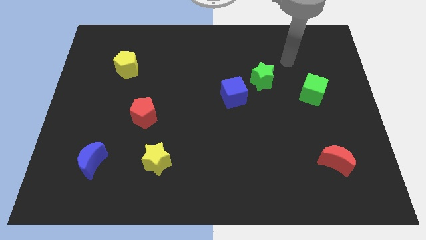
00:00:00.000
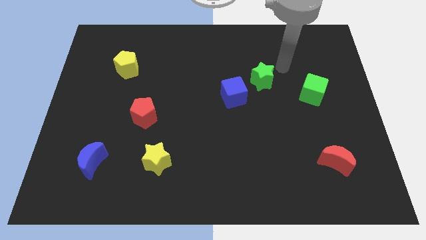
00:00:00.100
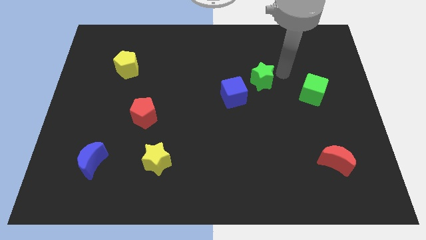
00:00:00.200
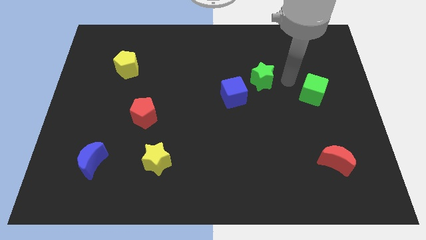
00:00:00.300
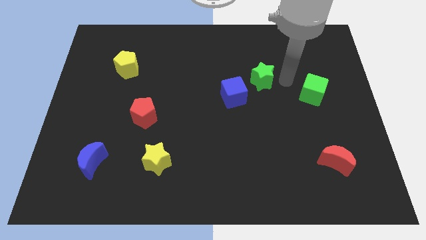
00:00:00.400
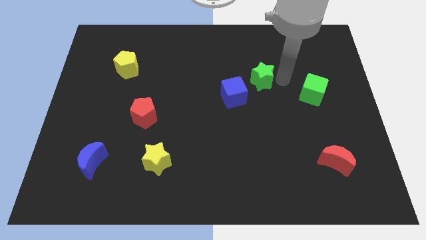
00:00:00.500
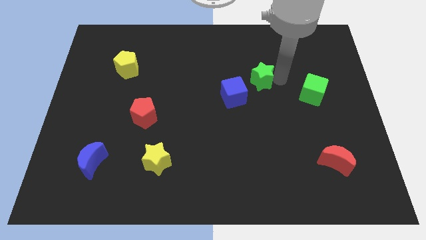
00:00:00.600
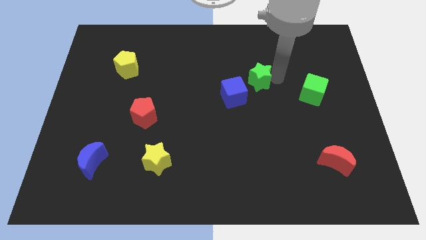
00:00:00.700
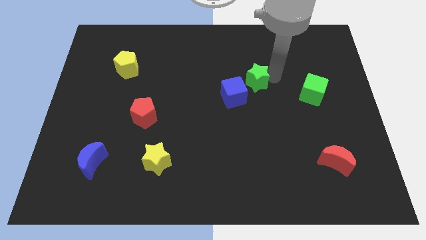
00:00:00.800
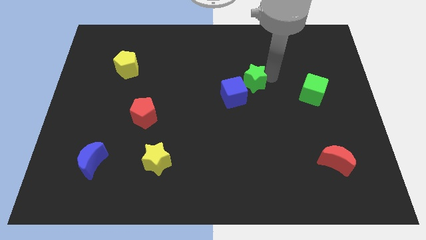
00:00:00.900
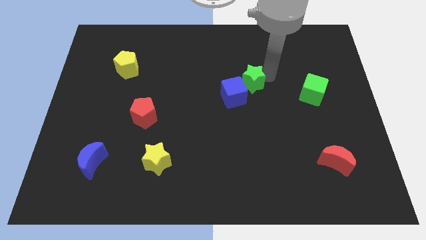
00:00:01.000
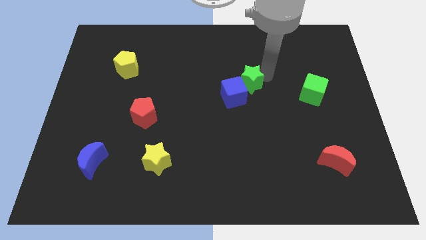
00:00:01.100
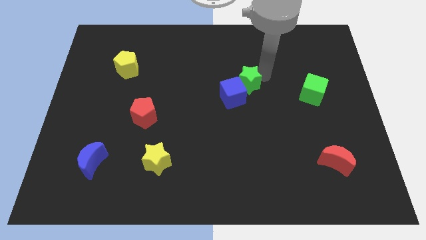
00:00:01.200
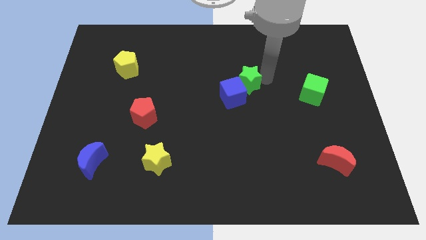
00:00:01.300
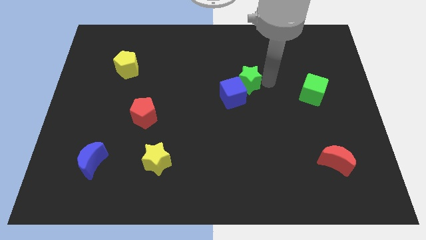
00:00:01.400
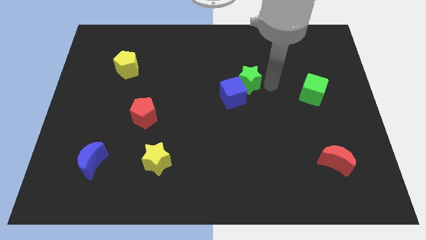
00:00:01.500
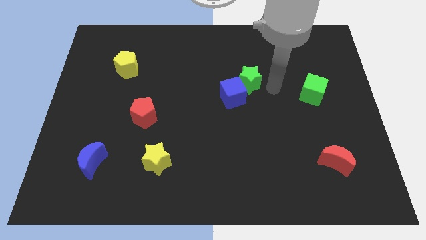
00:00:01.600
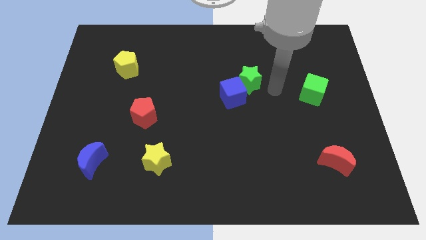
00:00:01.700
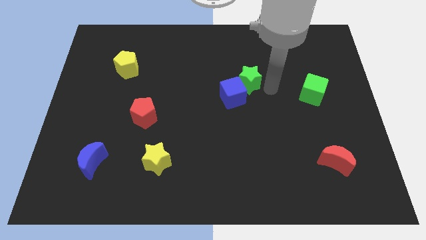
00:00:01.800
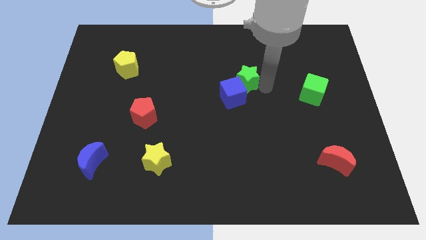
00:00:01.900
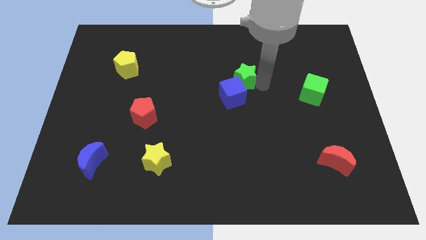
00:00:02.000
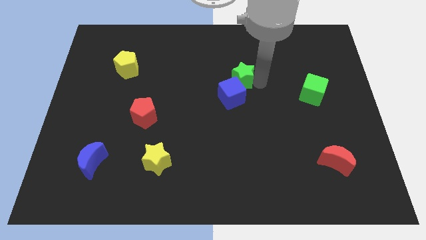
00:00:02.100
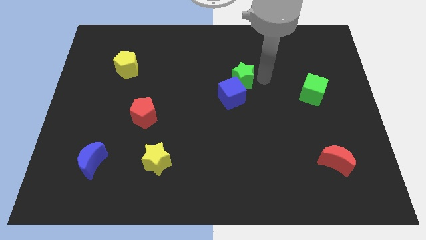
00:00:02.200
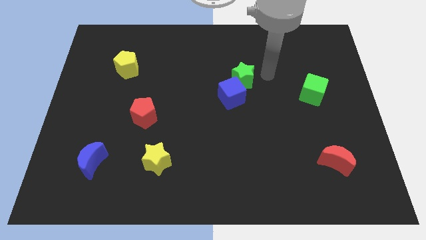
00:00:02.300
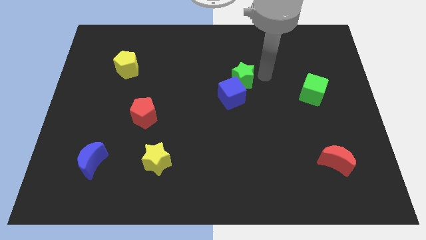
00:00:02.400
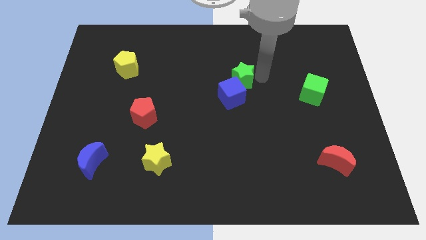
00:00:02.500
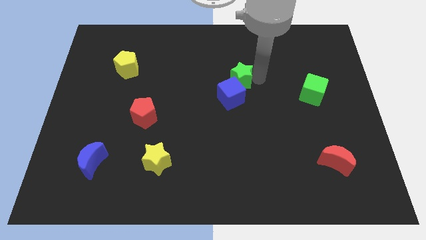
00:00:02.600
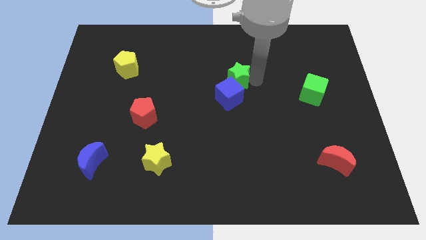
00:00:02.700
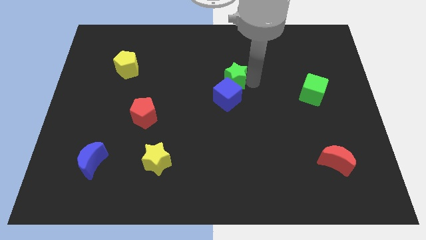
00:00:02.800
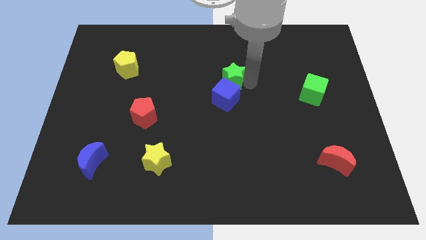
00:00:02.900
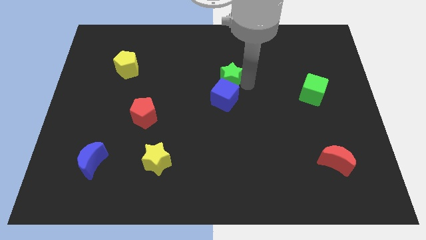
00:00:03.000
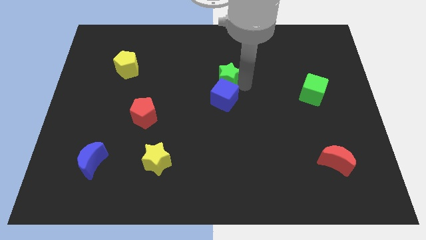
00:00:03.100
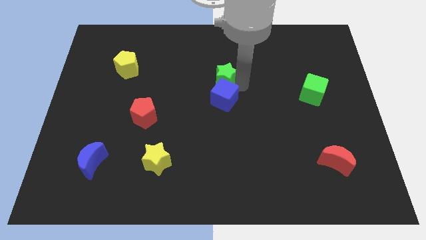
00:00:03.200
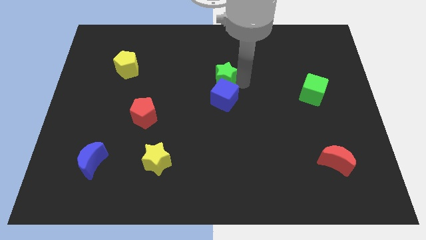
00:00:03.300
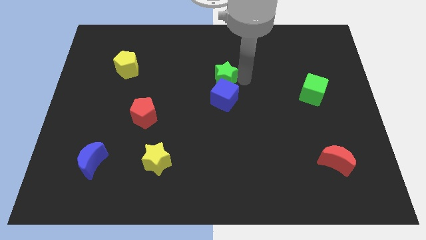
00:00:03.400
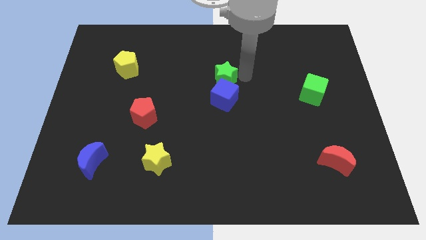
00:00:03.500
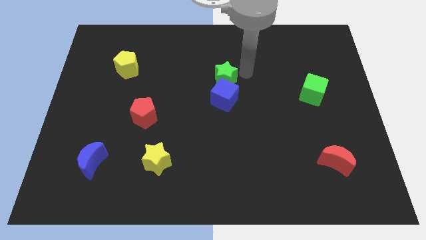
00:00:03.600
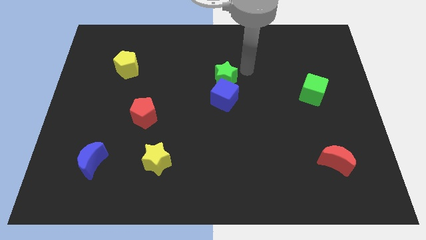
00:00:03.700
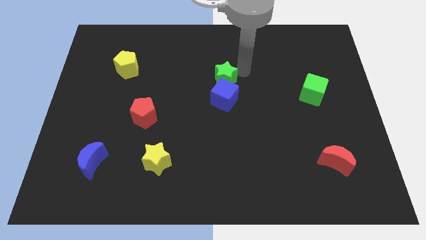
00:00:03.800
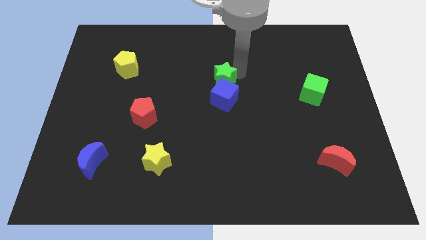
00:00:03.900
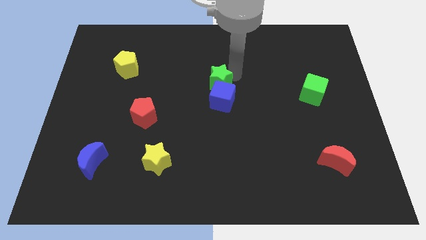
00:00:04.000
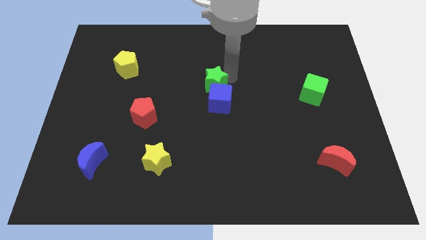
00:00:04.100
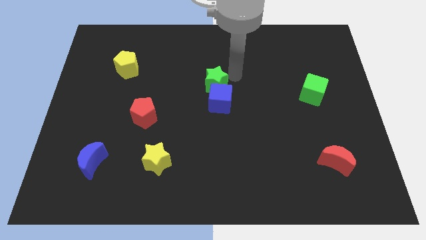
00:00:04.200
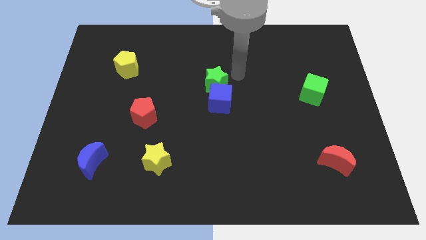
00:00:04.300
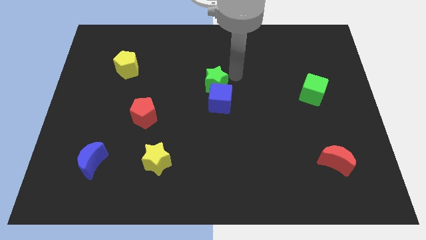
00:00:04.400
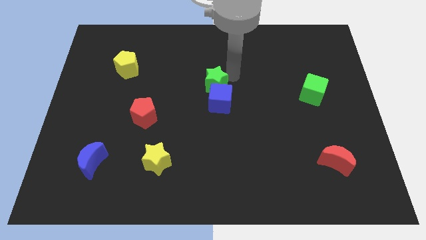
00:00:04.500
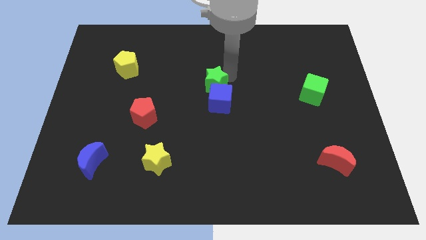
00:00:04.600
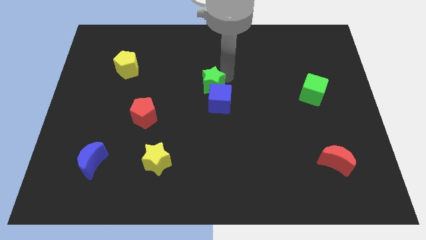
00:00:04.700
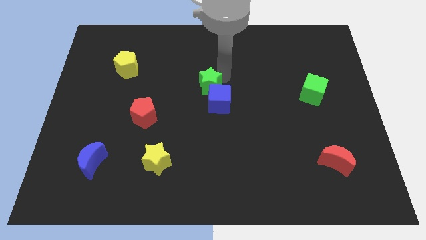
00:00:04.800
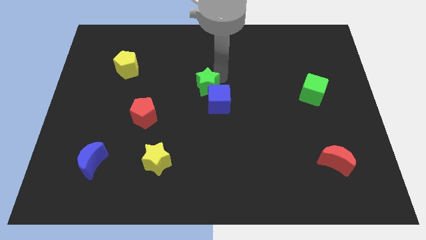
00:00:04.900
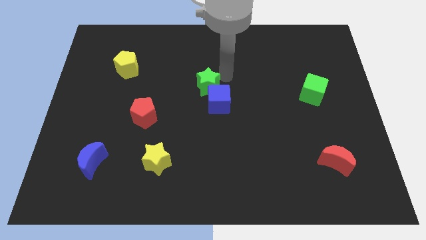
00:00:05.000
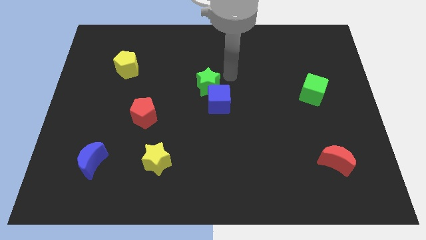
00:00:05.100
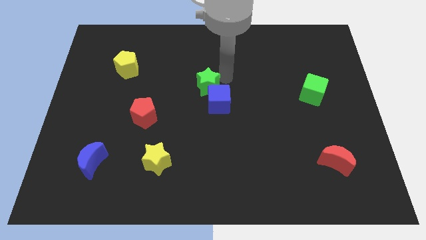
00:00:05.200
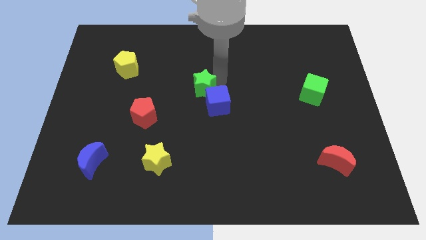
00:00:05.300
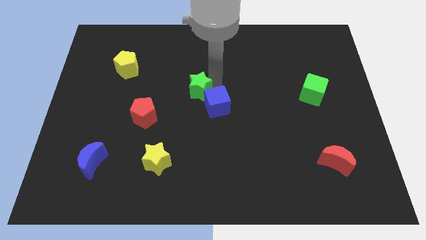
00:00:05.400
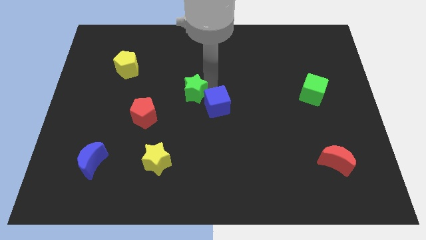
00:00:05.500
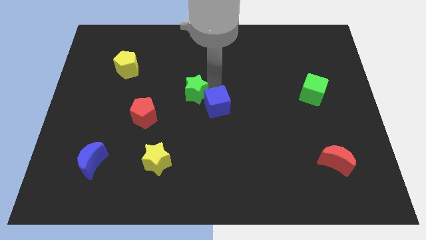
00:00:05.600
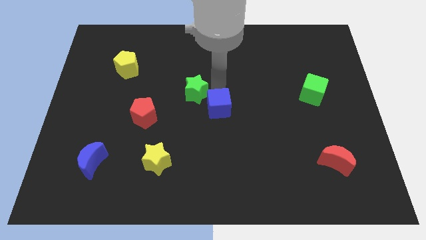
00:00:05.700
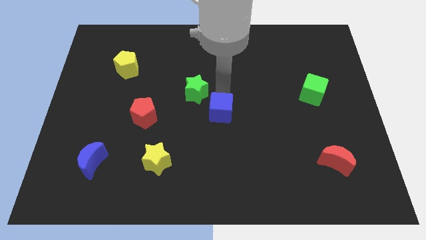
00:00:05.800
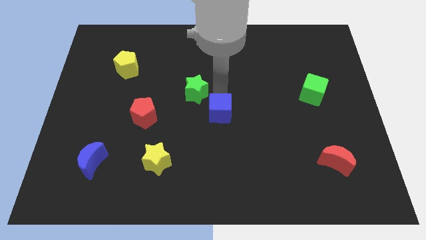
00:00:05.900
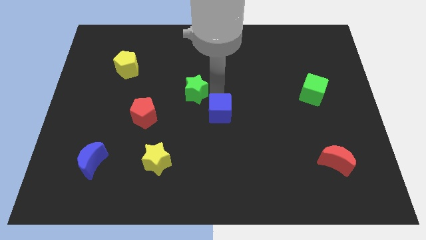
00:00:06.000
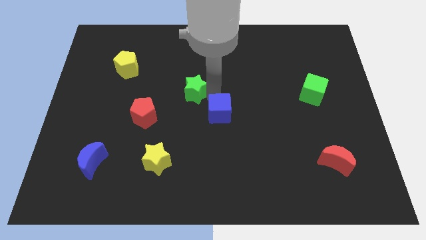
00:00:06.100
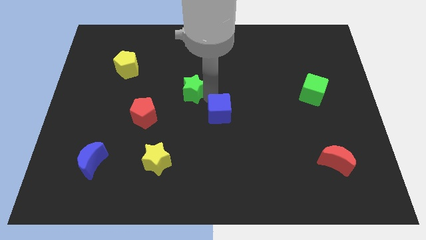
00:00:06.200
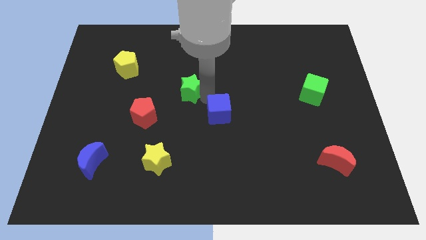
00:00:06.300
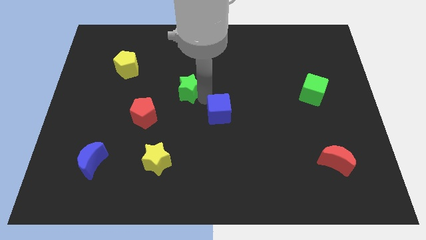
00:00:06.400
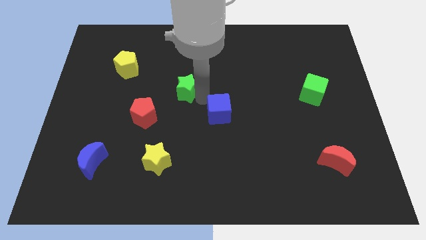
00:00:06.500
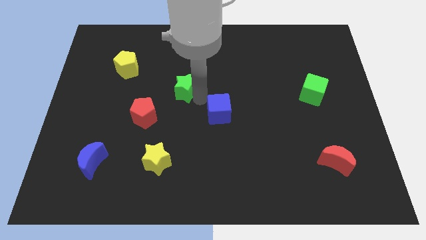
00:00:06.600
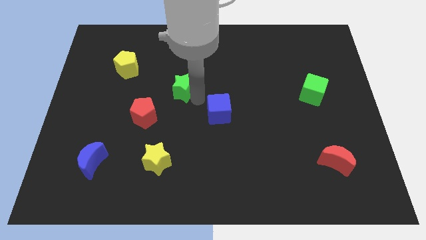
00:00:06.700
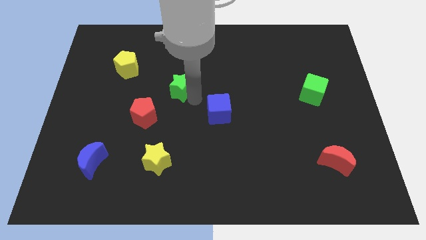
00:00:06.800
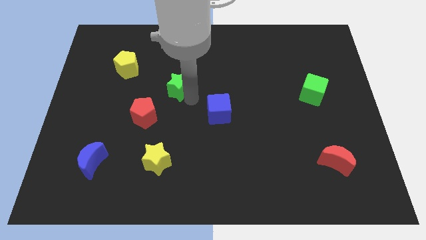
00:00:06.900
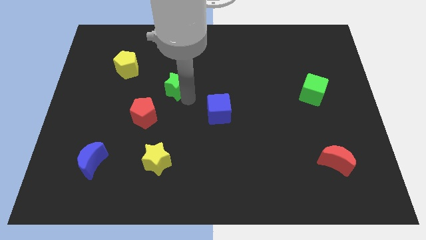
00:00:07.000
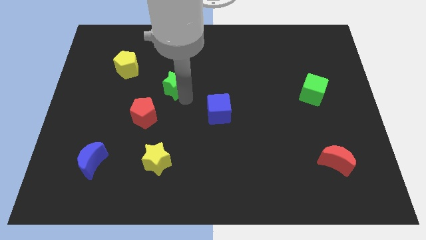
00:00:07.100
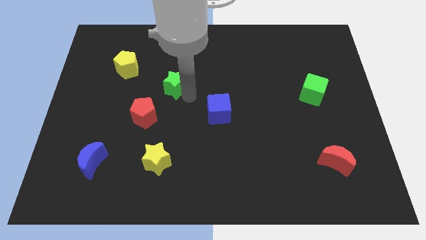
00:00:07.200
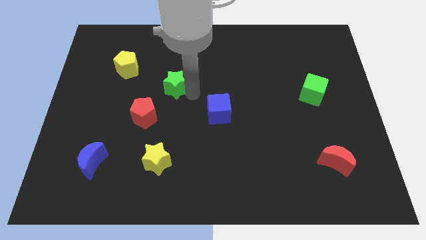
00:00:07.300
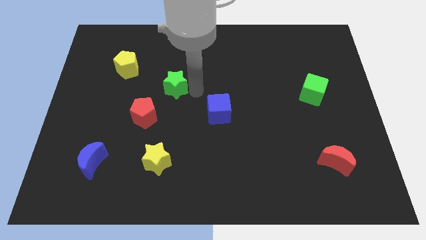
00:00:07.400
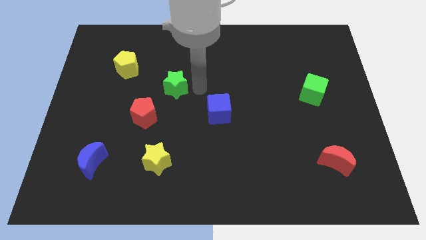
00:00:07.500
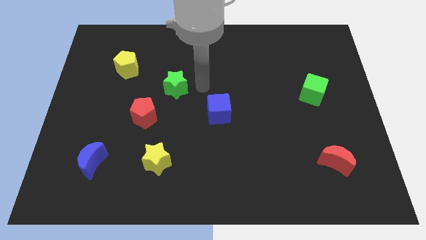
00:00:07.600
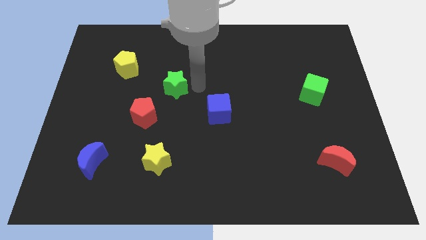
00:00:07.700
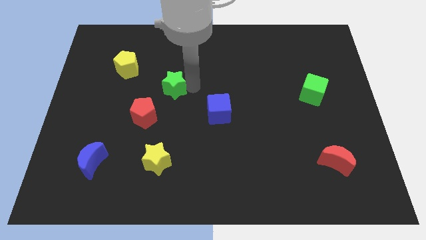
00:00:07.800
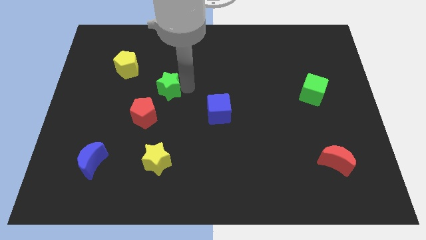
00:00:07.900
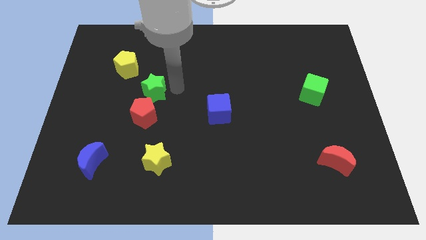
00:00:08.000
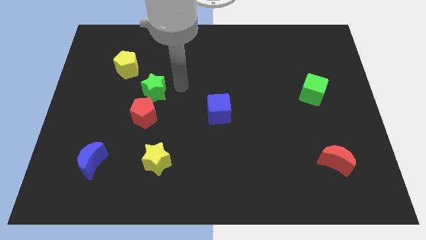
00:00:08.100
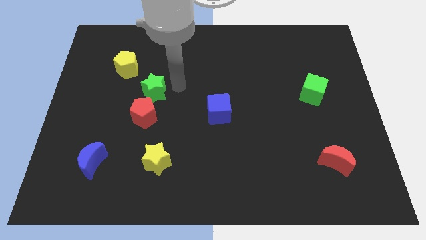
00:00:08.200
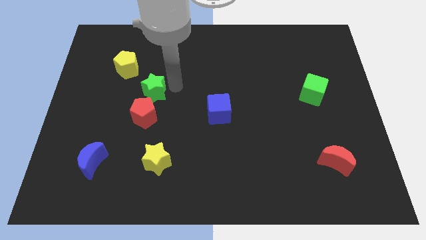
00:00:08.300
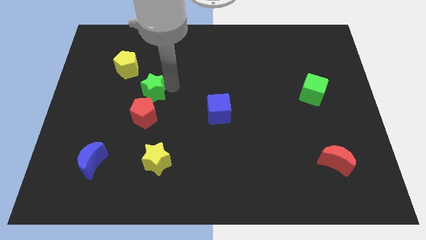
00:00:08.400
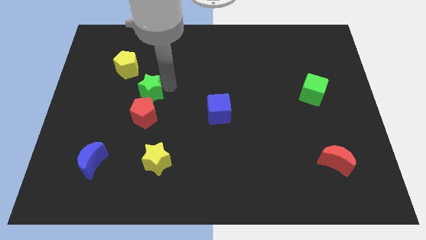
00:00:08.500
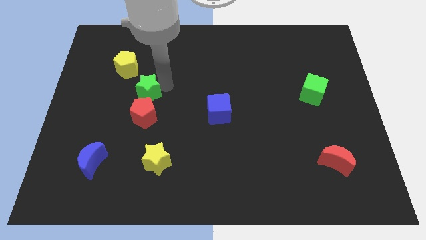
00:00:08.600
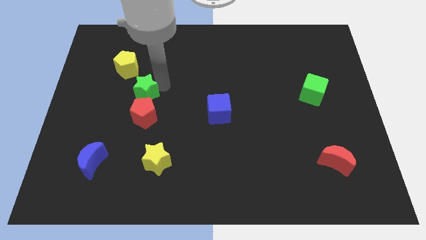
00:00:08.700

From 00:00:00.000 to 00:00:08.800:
push the green star to the top left side of the red pentagon
